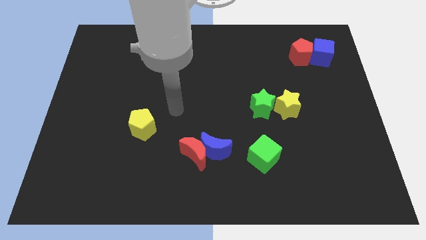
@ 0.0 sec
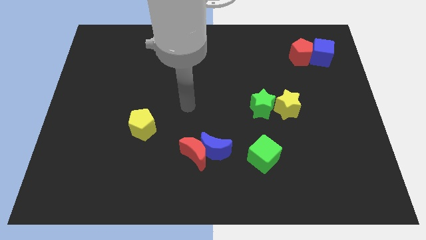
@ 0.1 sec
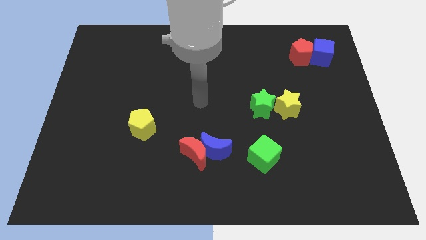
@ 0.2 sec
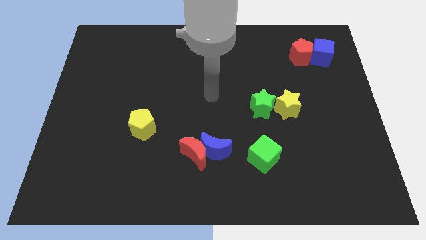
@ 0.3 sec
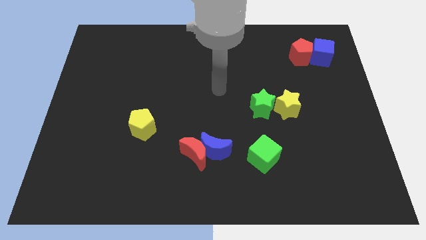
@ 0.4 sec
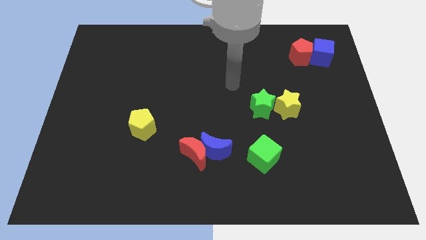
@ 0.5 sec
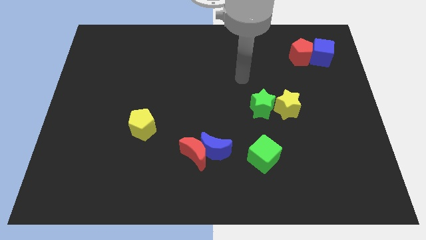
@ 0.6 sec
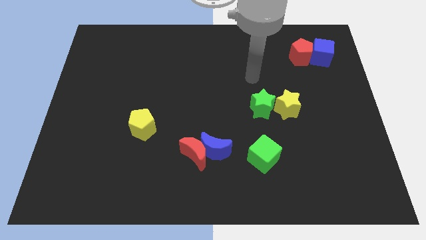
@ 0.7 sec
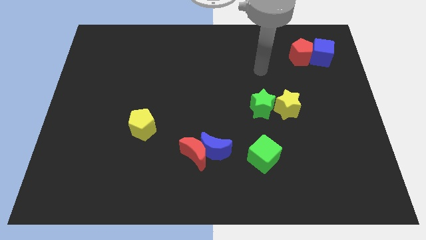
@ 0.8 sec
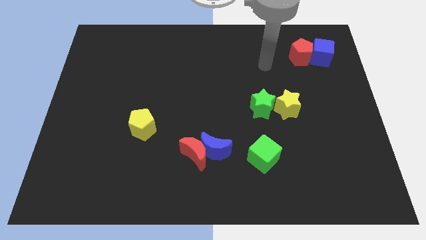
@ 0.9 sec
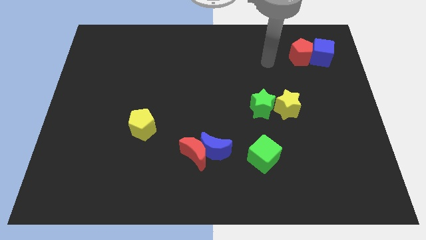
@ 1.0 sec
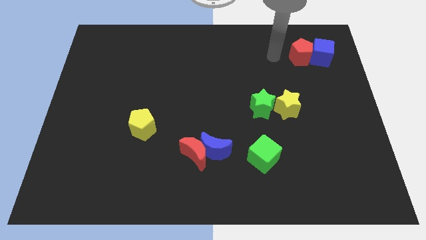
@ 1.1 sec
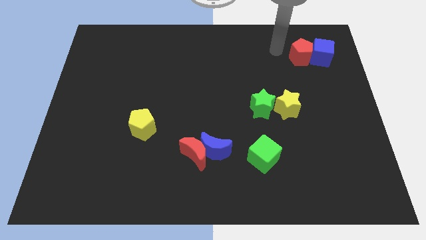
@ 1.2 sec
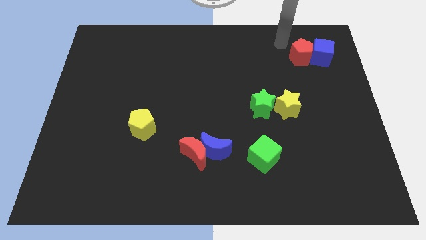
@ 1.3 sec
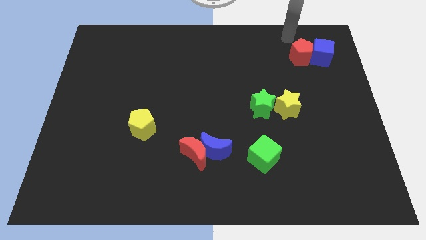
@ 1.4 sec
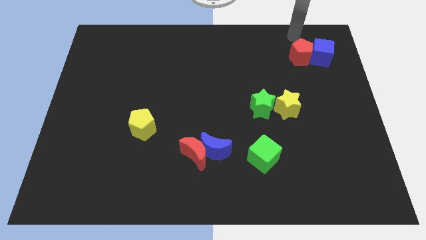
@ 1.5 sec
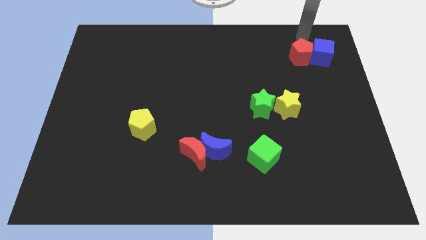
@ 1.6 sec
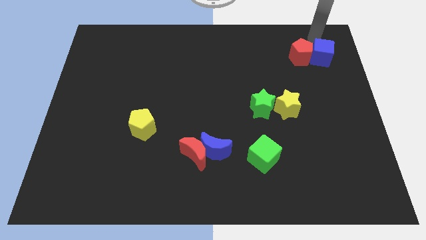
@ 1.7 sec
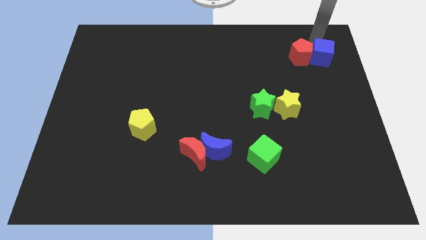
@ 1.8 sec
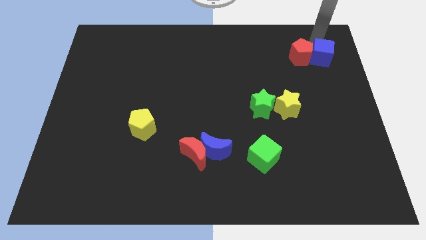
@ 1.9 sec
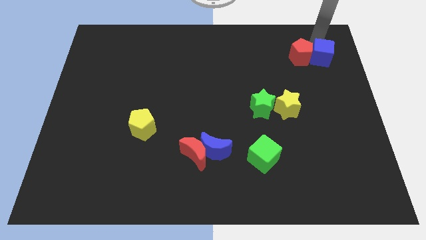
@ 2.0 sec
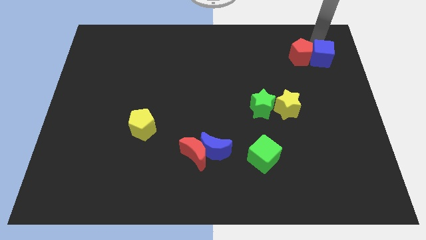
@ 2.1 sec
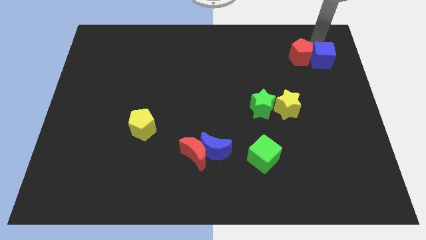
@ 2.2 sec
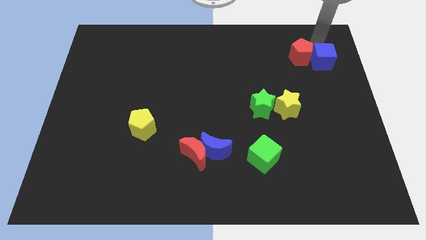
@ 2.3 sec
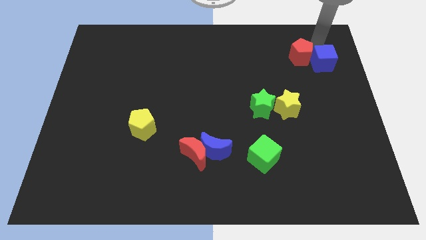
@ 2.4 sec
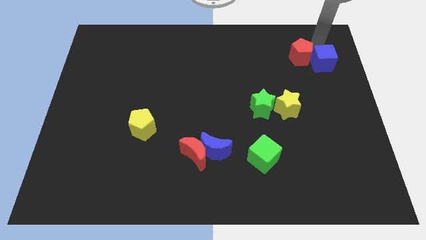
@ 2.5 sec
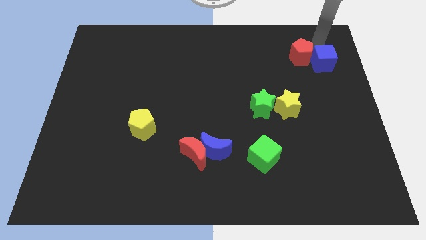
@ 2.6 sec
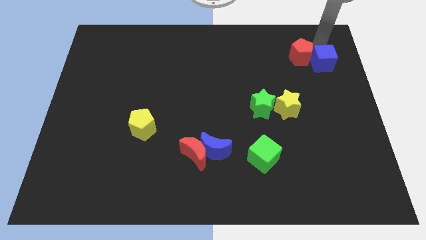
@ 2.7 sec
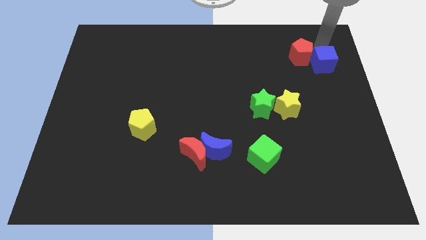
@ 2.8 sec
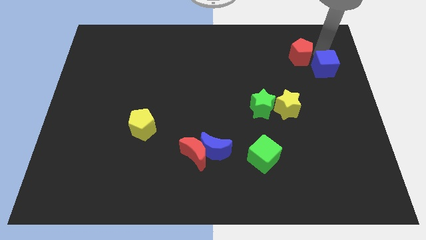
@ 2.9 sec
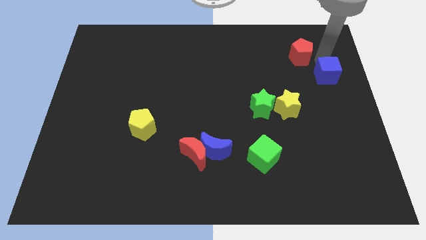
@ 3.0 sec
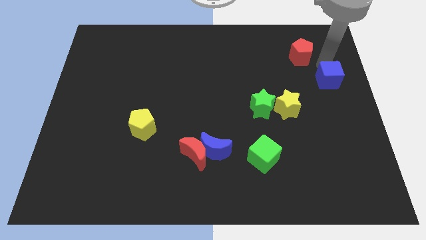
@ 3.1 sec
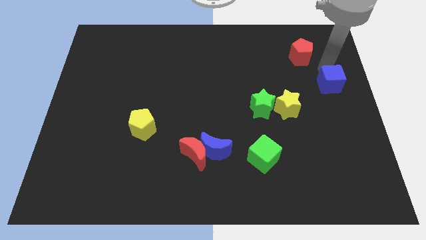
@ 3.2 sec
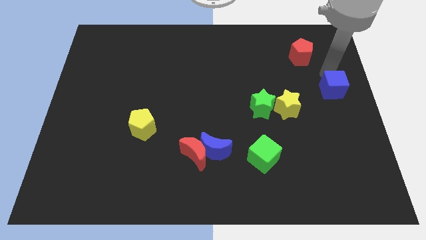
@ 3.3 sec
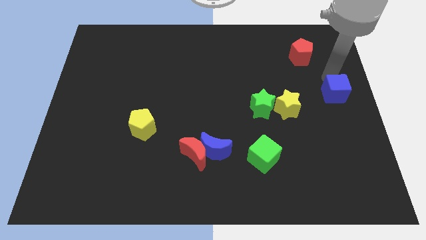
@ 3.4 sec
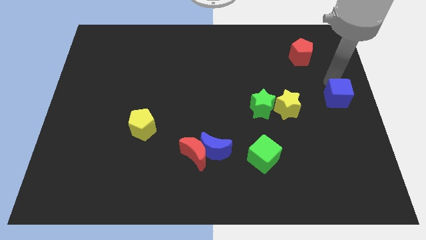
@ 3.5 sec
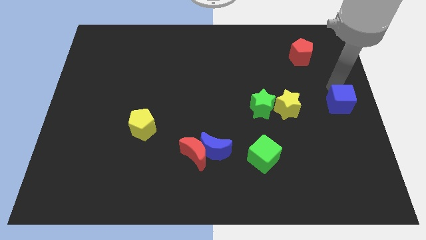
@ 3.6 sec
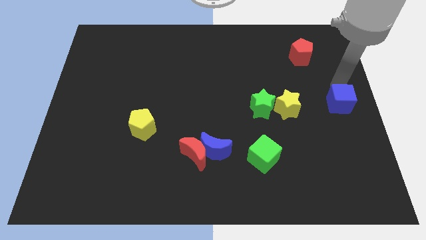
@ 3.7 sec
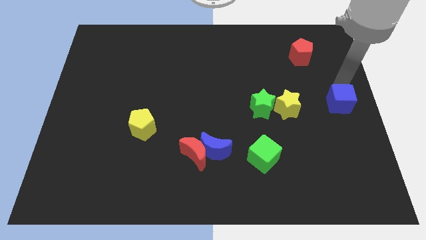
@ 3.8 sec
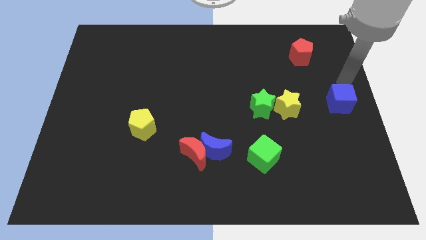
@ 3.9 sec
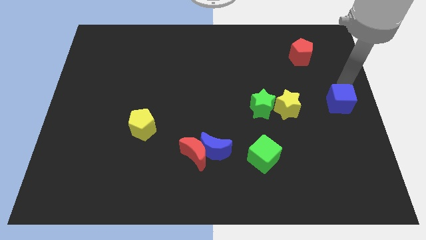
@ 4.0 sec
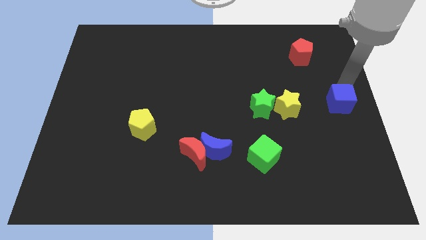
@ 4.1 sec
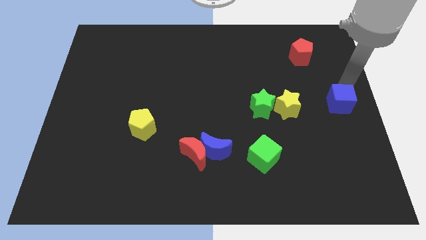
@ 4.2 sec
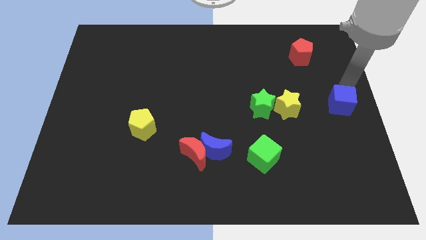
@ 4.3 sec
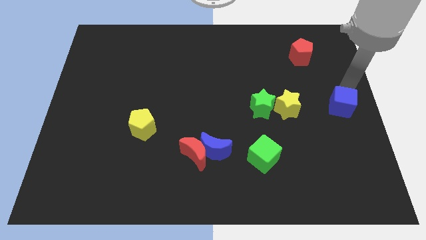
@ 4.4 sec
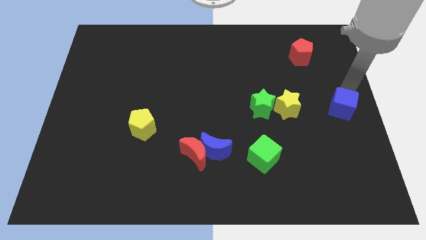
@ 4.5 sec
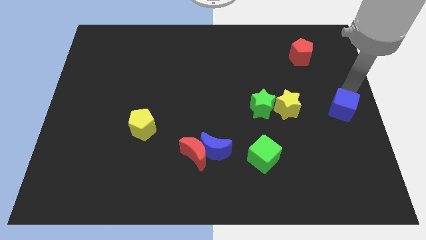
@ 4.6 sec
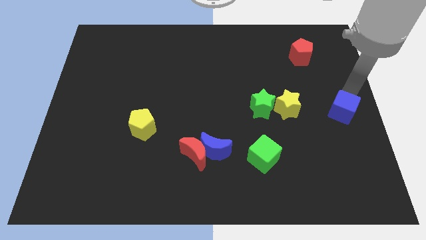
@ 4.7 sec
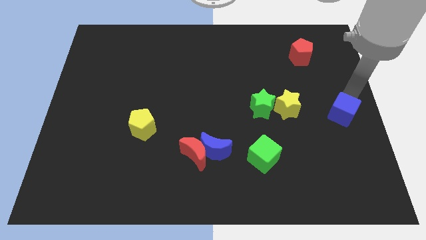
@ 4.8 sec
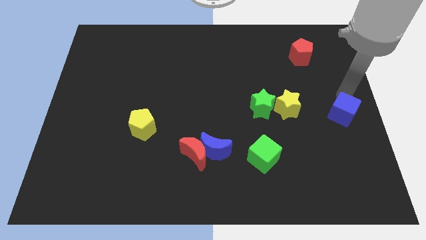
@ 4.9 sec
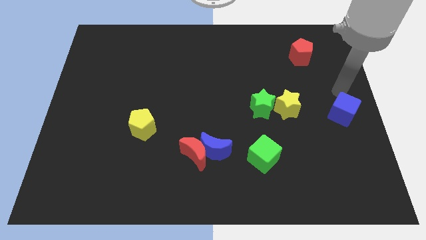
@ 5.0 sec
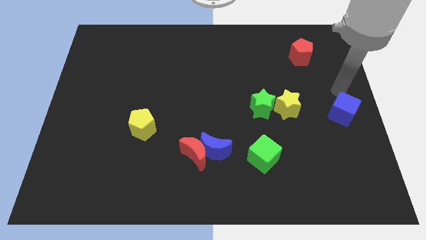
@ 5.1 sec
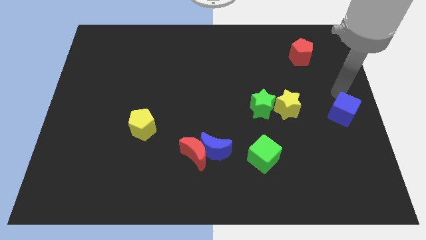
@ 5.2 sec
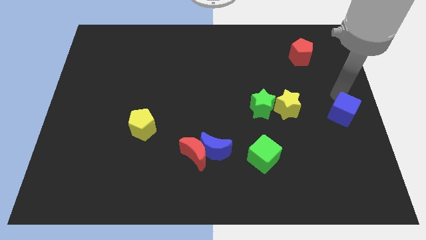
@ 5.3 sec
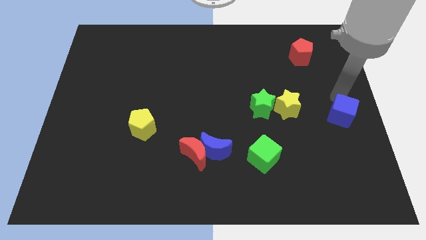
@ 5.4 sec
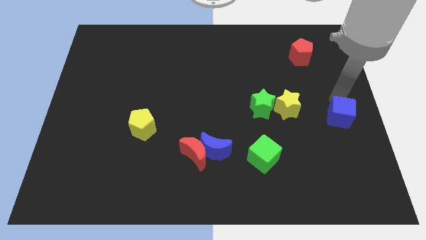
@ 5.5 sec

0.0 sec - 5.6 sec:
move the blue cube down

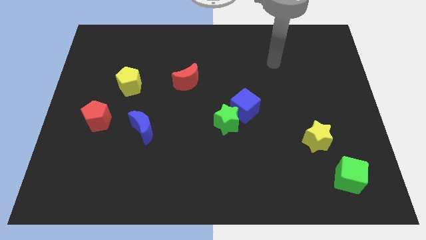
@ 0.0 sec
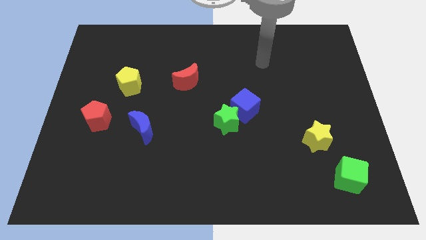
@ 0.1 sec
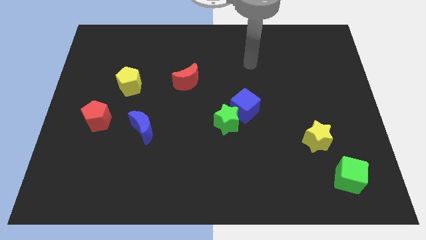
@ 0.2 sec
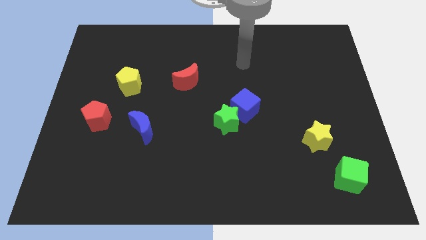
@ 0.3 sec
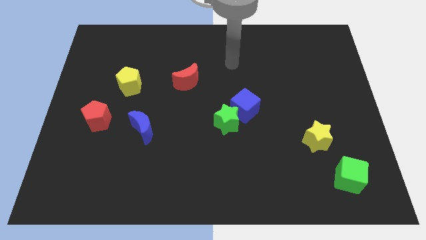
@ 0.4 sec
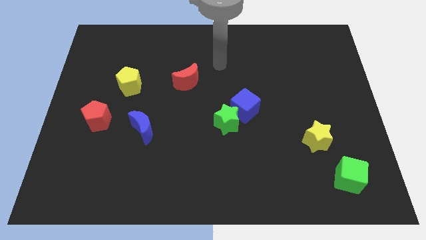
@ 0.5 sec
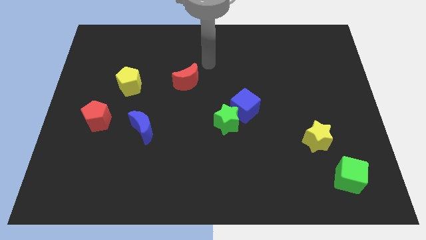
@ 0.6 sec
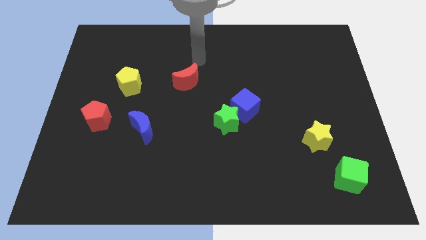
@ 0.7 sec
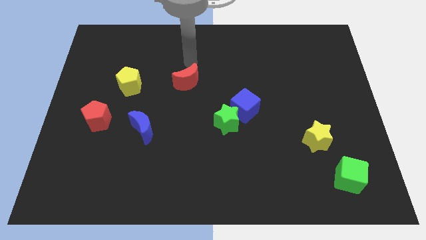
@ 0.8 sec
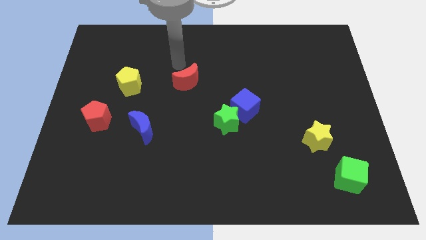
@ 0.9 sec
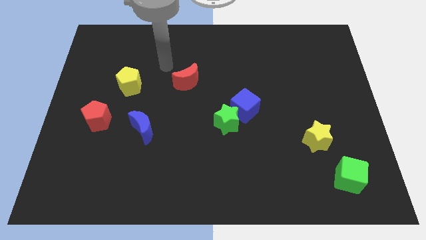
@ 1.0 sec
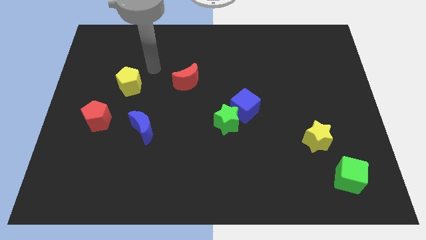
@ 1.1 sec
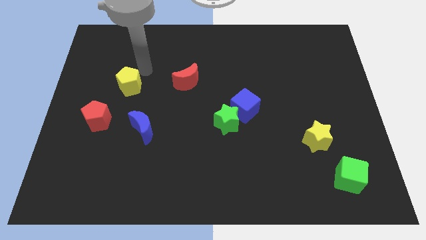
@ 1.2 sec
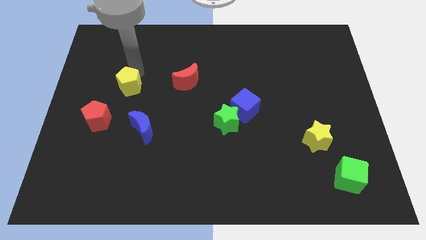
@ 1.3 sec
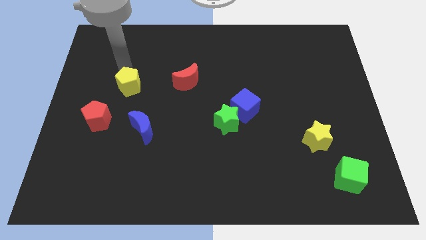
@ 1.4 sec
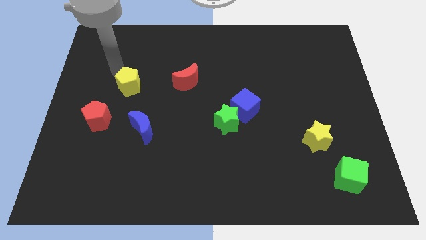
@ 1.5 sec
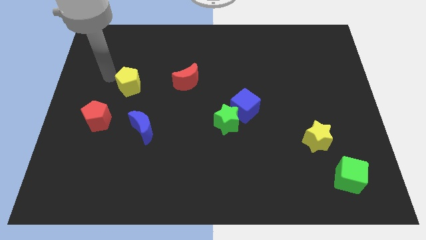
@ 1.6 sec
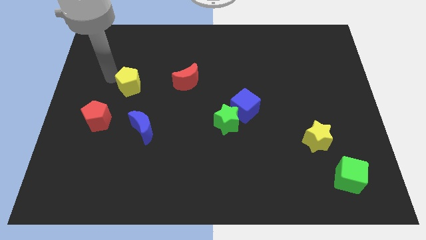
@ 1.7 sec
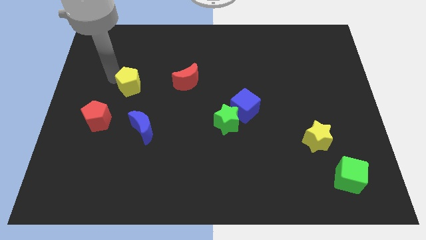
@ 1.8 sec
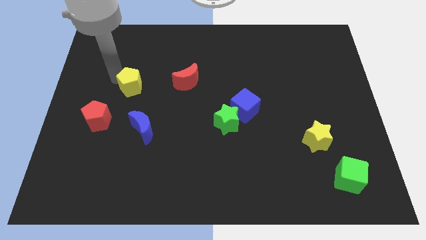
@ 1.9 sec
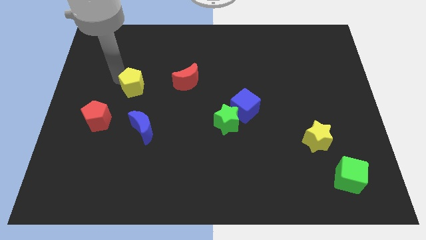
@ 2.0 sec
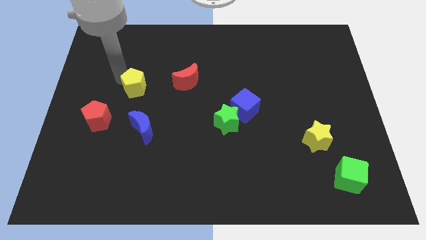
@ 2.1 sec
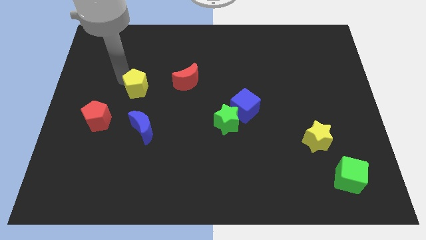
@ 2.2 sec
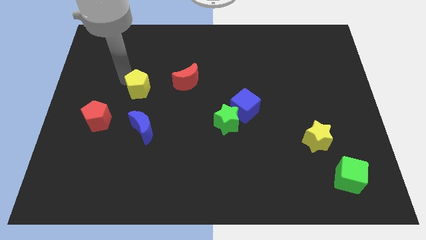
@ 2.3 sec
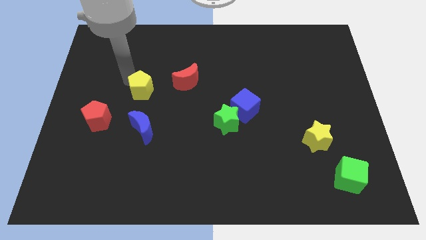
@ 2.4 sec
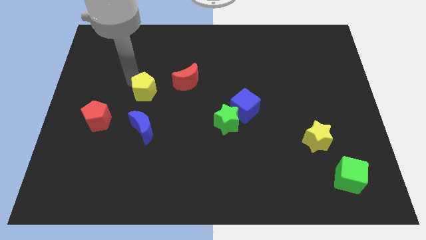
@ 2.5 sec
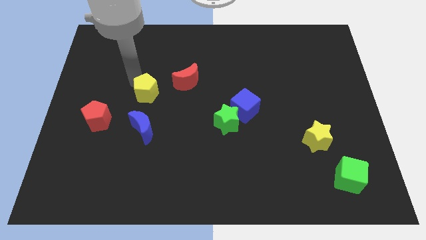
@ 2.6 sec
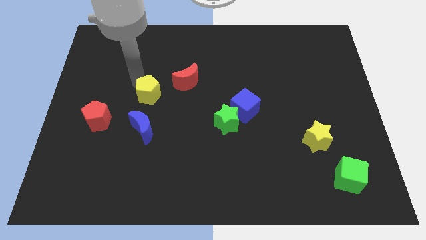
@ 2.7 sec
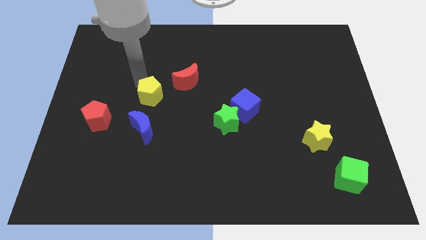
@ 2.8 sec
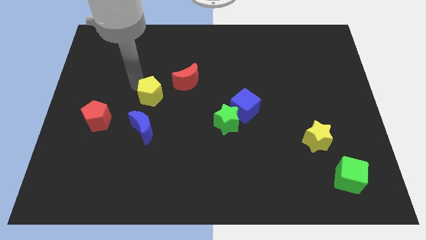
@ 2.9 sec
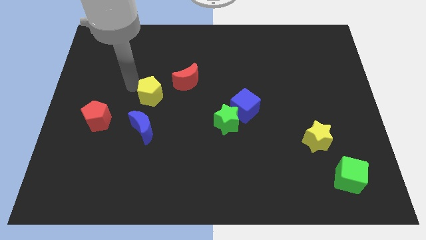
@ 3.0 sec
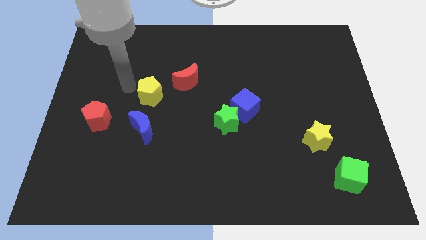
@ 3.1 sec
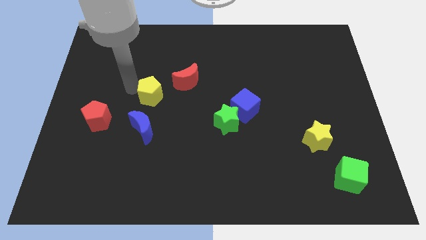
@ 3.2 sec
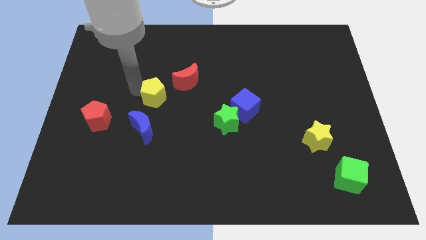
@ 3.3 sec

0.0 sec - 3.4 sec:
slightly move the yellow pentagon down and then right
